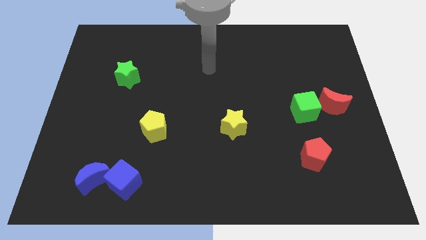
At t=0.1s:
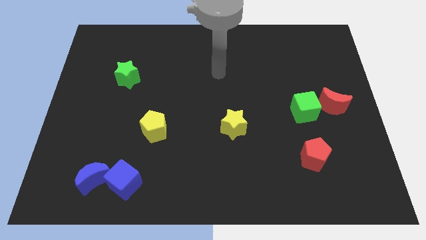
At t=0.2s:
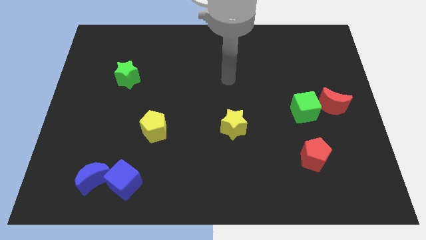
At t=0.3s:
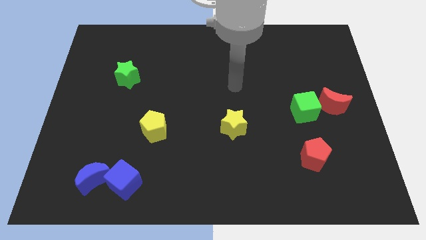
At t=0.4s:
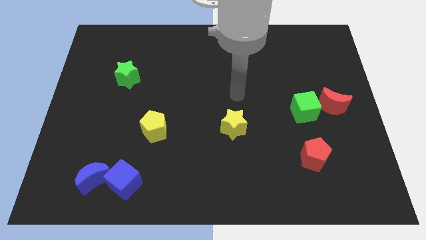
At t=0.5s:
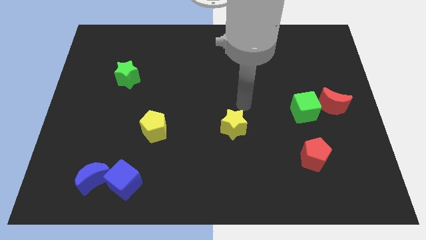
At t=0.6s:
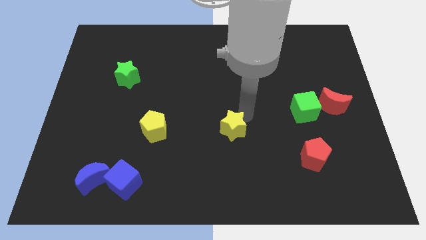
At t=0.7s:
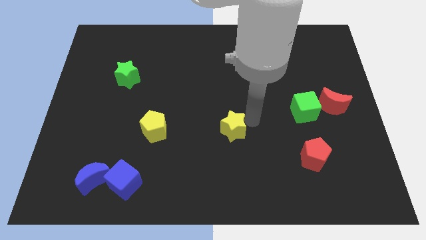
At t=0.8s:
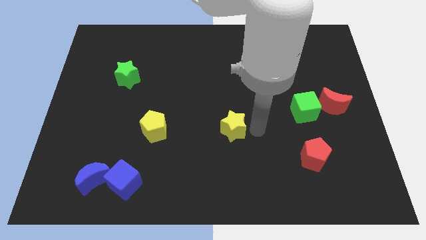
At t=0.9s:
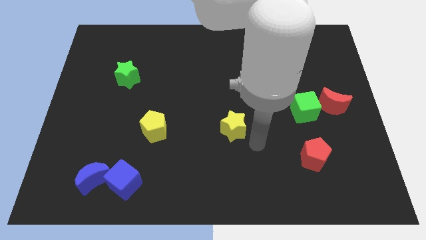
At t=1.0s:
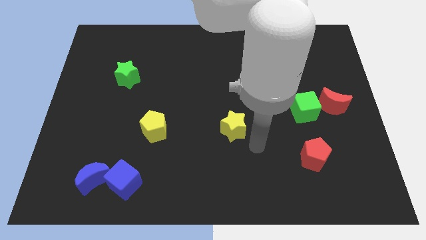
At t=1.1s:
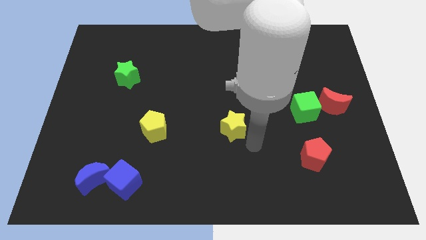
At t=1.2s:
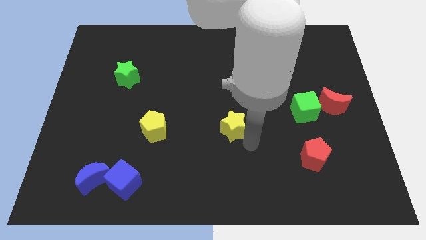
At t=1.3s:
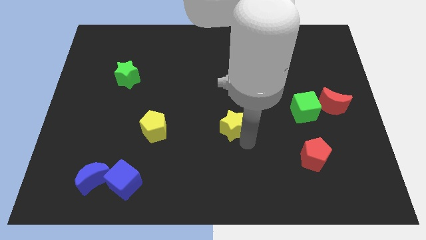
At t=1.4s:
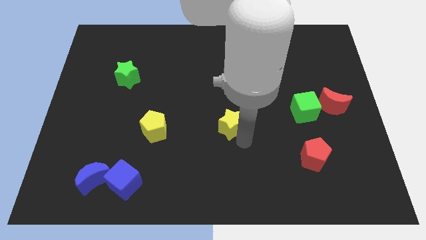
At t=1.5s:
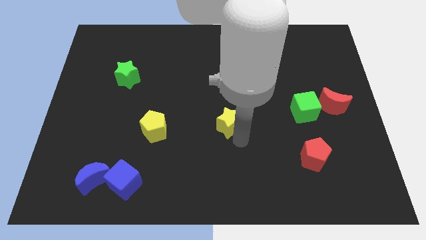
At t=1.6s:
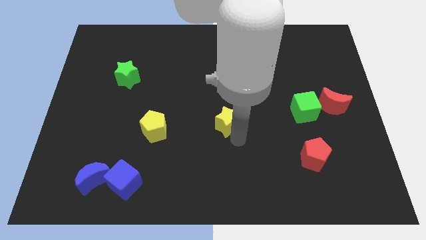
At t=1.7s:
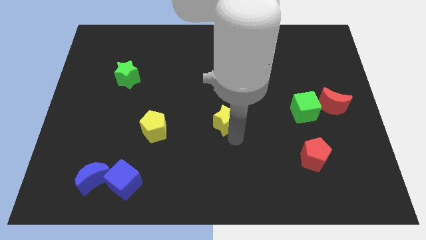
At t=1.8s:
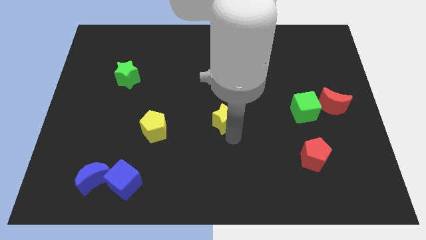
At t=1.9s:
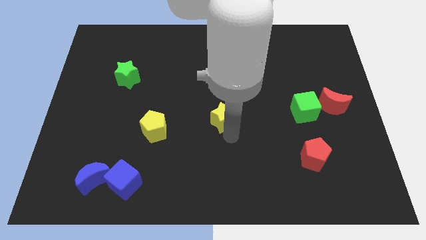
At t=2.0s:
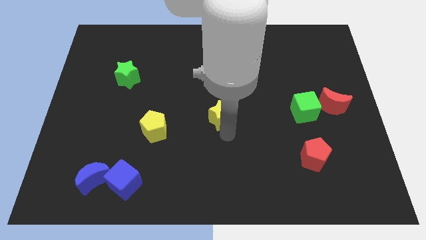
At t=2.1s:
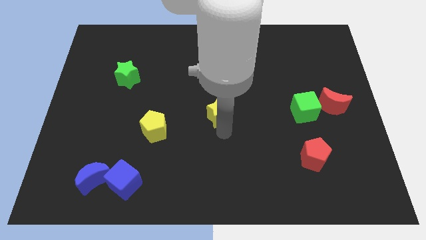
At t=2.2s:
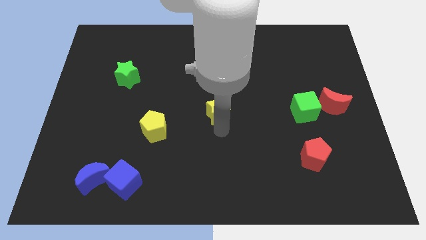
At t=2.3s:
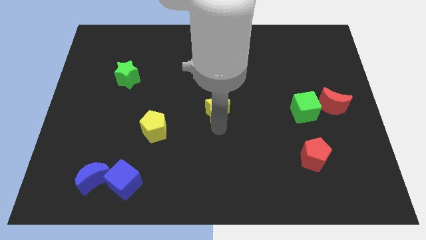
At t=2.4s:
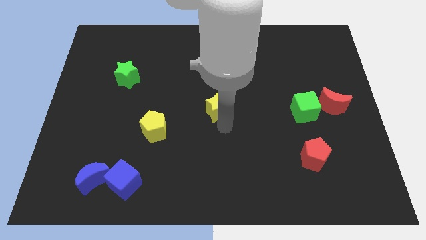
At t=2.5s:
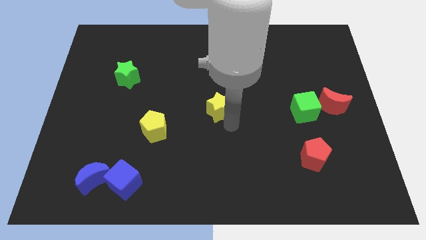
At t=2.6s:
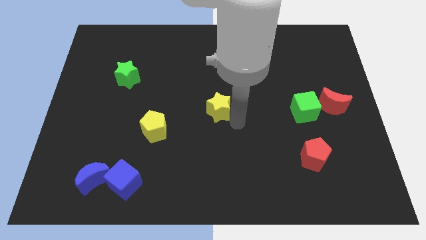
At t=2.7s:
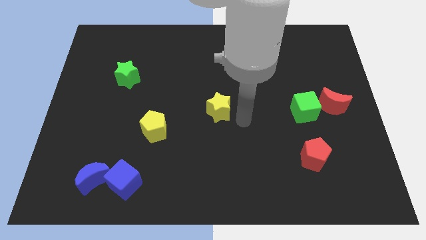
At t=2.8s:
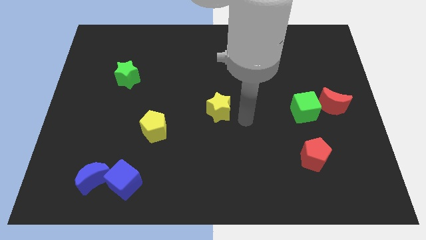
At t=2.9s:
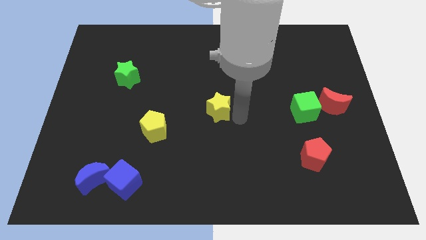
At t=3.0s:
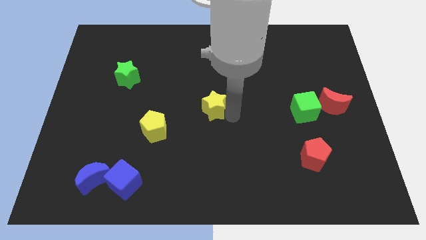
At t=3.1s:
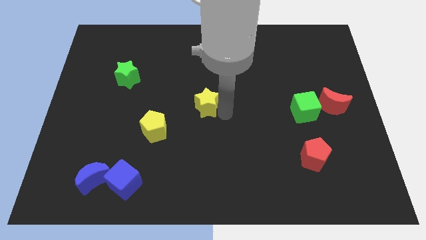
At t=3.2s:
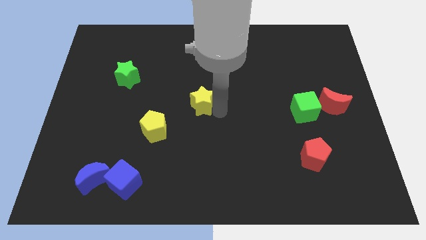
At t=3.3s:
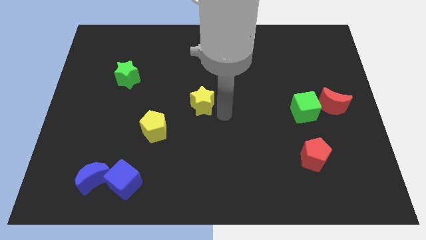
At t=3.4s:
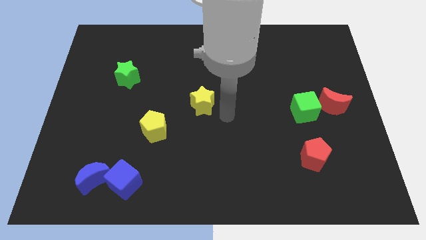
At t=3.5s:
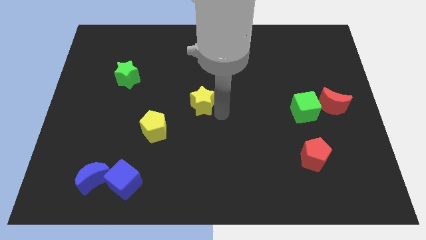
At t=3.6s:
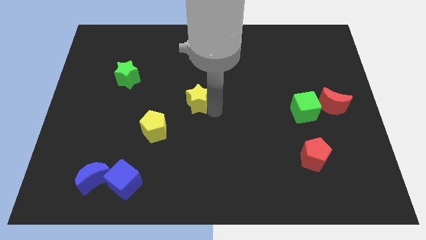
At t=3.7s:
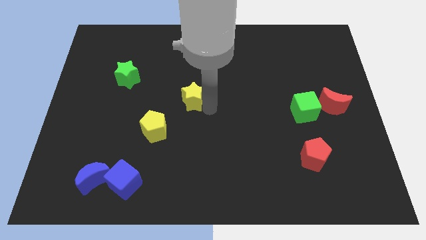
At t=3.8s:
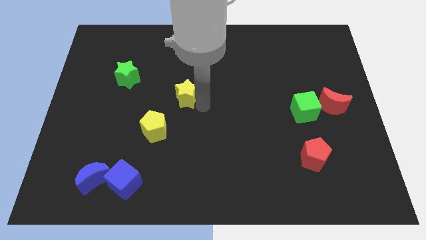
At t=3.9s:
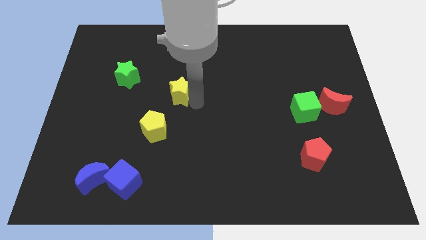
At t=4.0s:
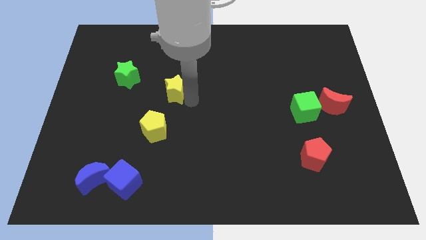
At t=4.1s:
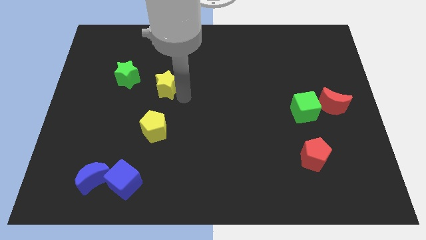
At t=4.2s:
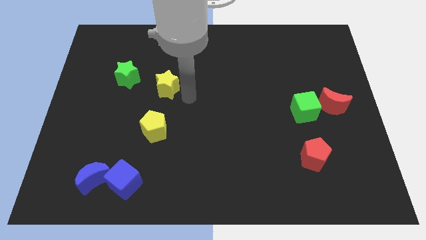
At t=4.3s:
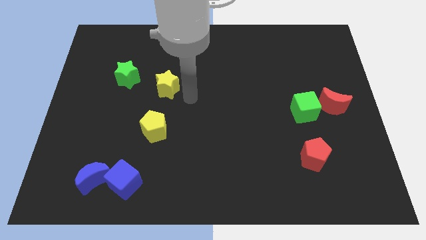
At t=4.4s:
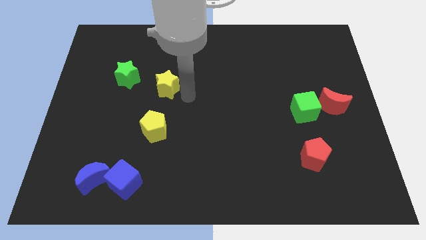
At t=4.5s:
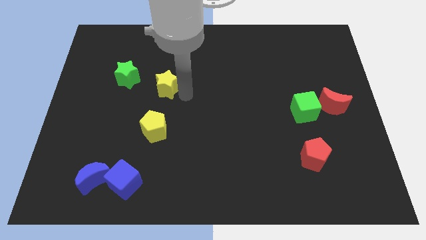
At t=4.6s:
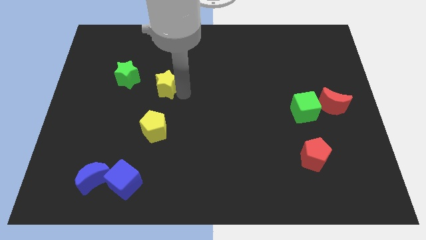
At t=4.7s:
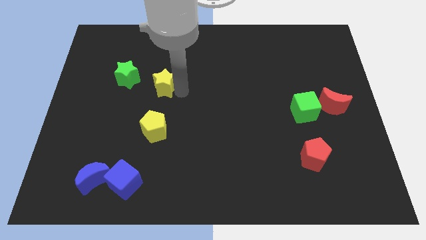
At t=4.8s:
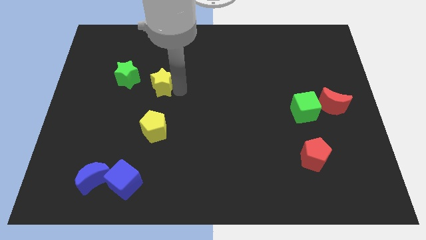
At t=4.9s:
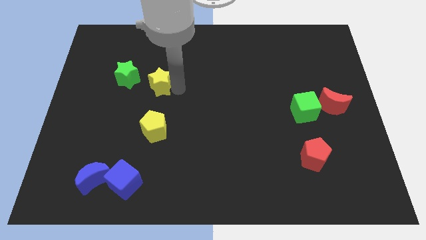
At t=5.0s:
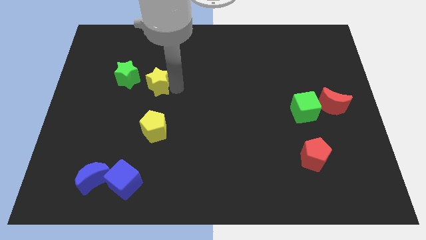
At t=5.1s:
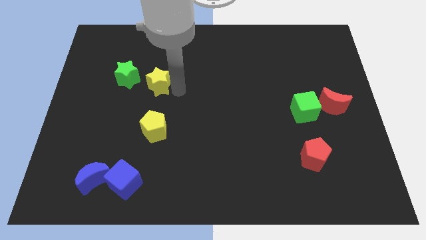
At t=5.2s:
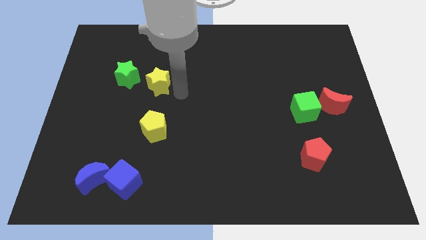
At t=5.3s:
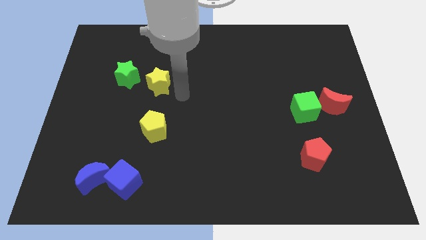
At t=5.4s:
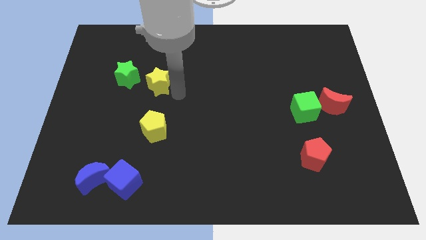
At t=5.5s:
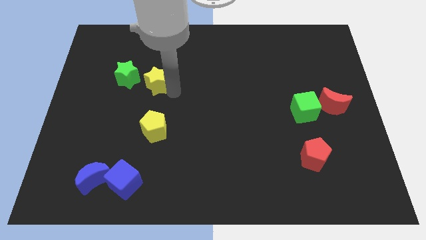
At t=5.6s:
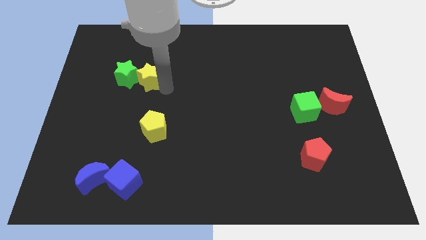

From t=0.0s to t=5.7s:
move the yellow star to the green star

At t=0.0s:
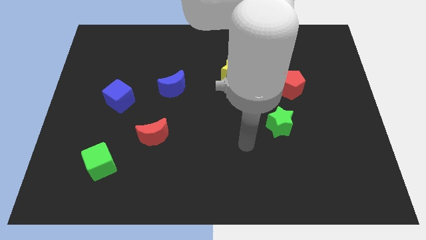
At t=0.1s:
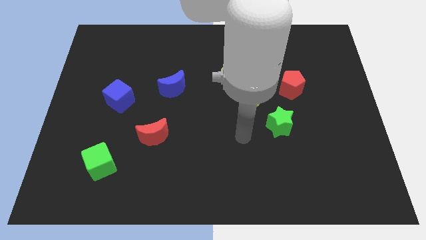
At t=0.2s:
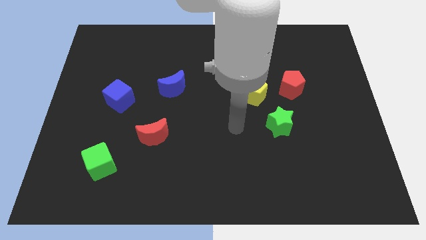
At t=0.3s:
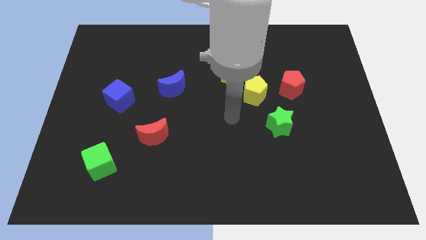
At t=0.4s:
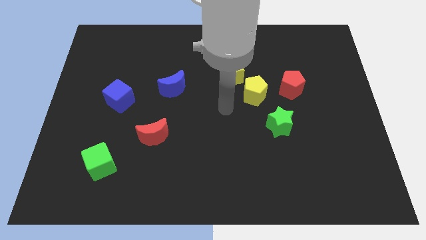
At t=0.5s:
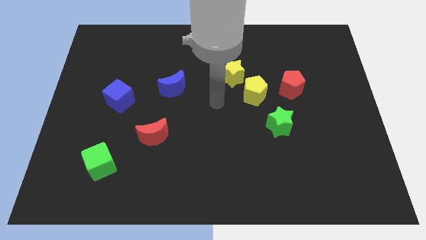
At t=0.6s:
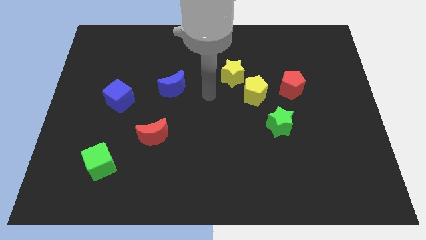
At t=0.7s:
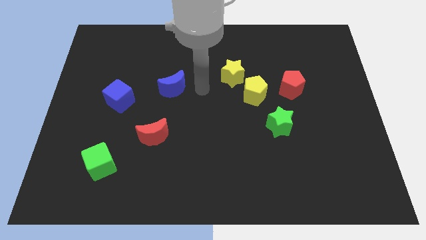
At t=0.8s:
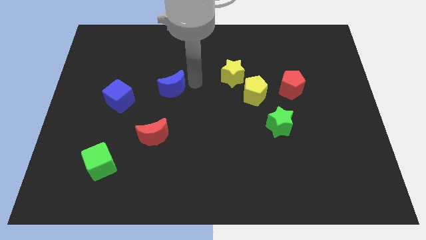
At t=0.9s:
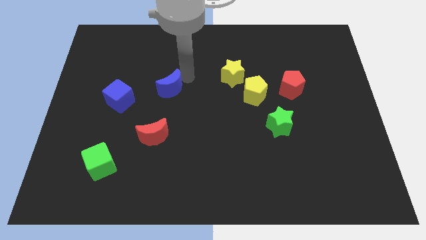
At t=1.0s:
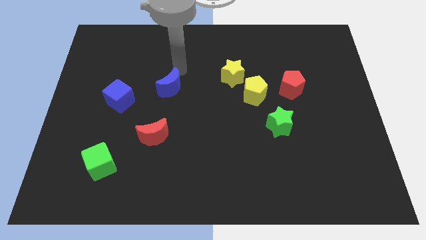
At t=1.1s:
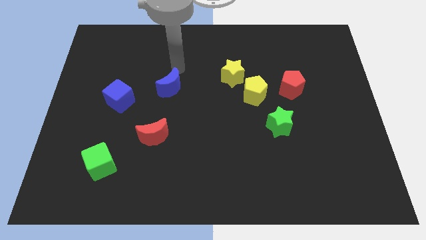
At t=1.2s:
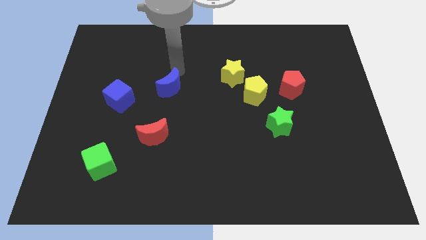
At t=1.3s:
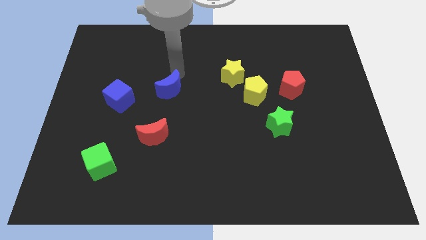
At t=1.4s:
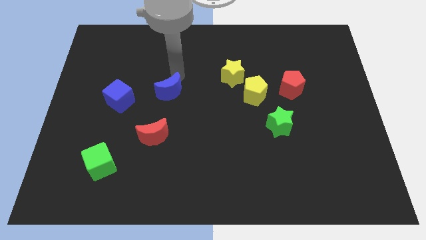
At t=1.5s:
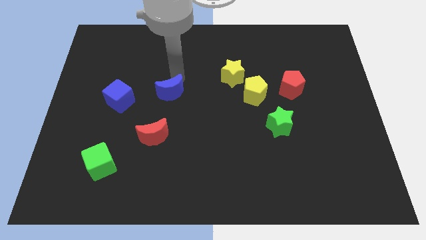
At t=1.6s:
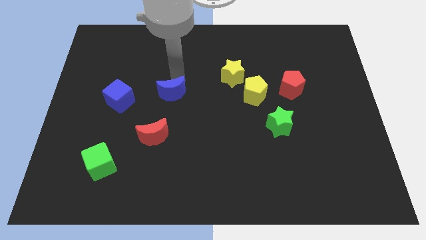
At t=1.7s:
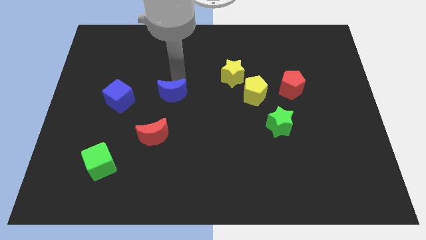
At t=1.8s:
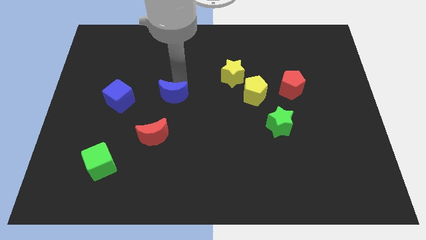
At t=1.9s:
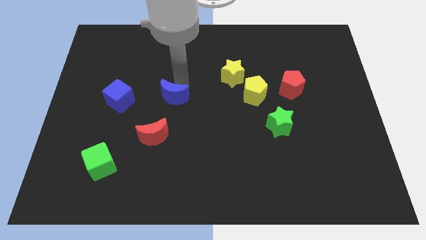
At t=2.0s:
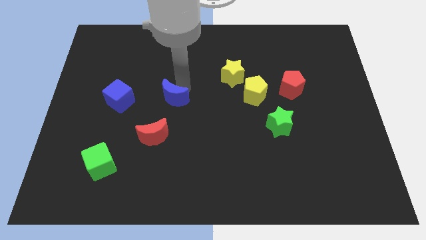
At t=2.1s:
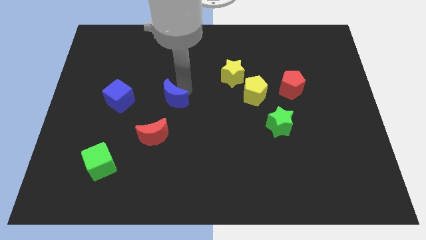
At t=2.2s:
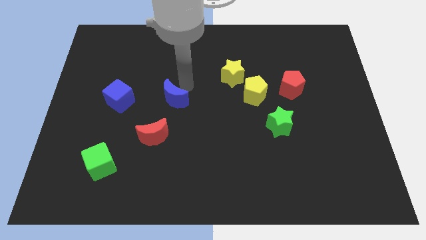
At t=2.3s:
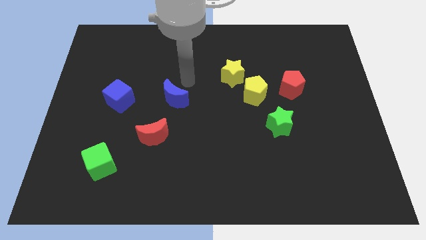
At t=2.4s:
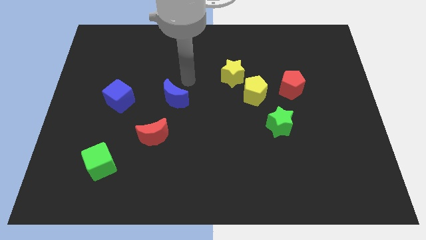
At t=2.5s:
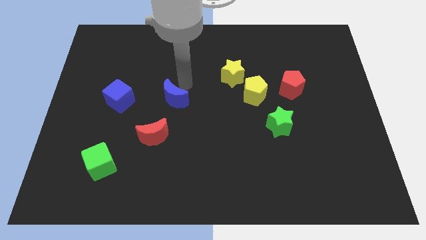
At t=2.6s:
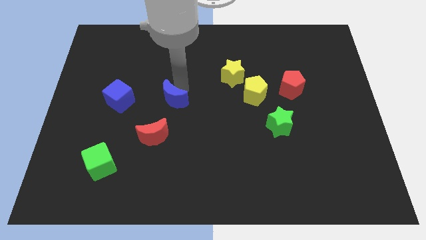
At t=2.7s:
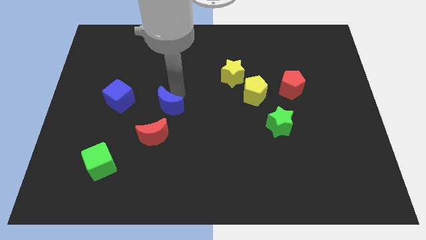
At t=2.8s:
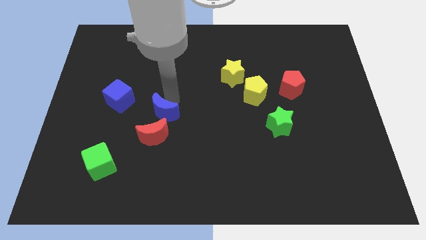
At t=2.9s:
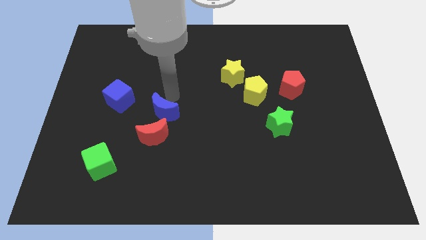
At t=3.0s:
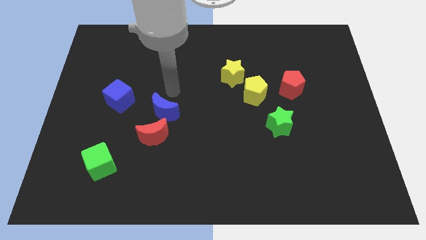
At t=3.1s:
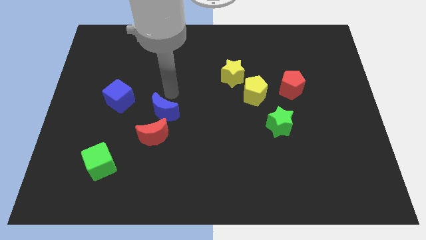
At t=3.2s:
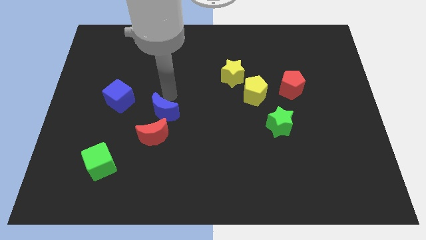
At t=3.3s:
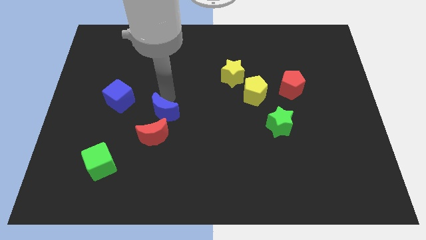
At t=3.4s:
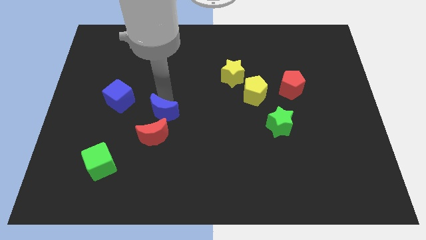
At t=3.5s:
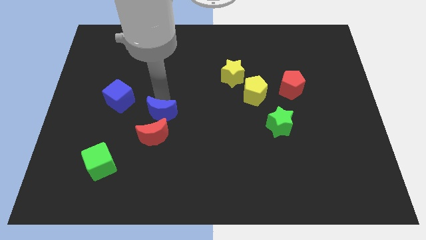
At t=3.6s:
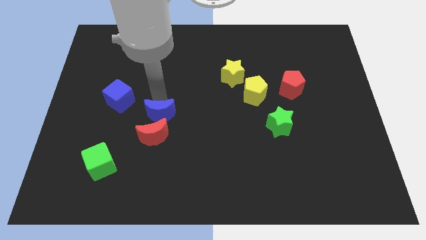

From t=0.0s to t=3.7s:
put the blue moon to the red moon
